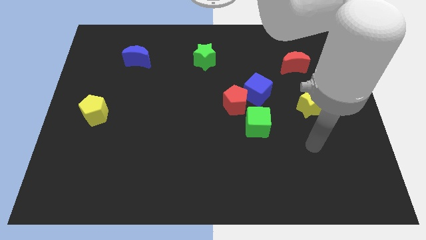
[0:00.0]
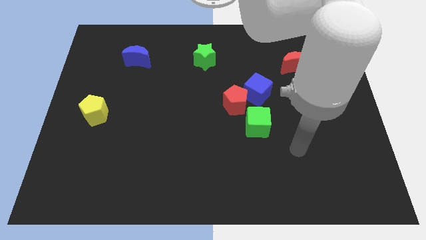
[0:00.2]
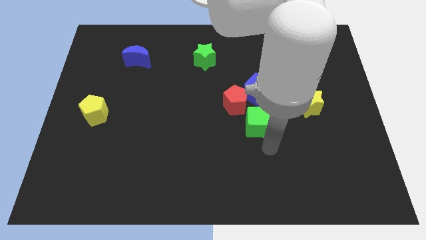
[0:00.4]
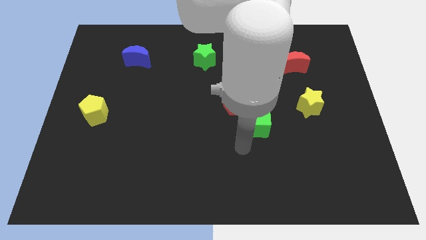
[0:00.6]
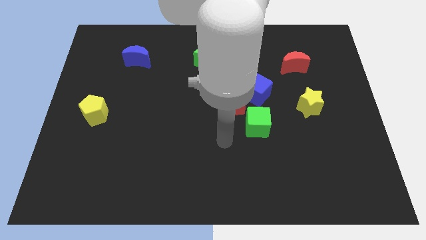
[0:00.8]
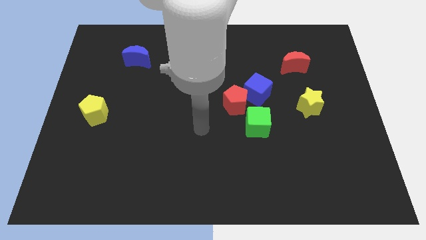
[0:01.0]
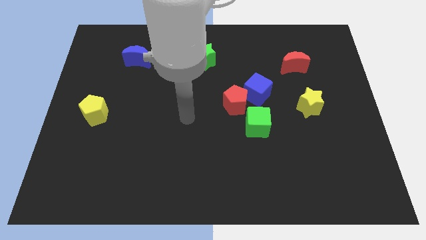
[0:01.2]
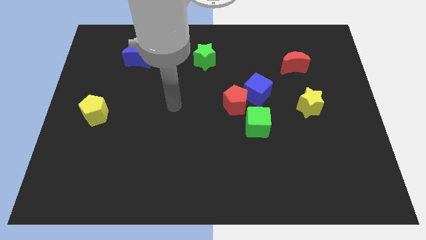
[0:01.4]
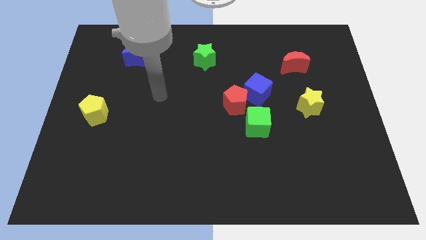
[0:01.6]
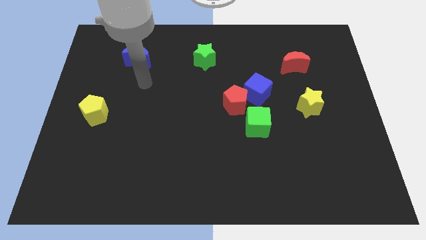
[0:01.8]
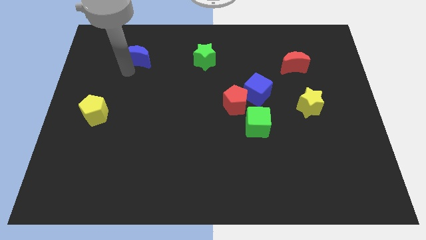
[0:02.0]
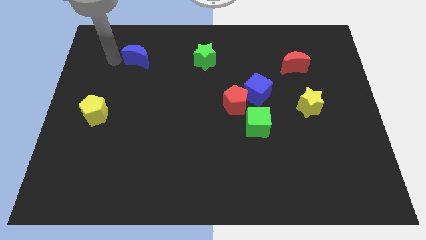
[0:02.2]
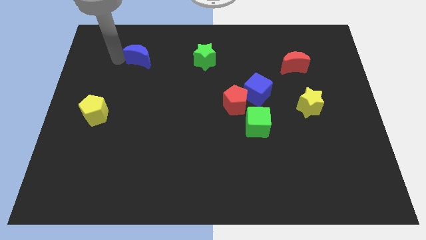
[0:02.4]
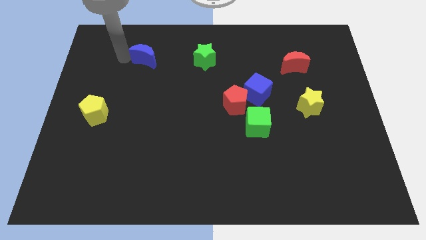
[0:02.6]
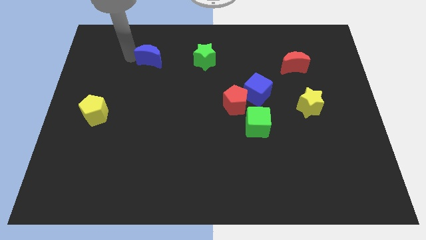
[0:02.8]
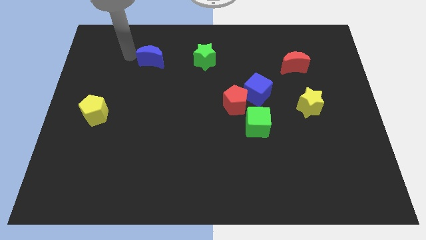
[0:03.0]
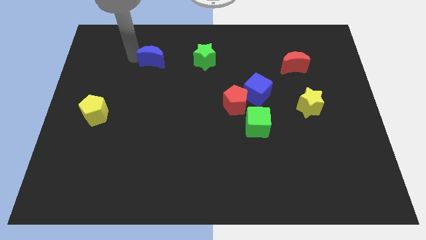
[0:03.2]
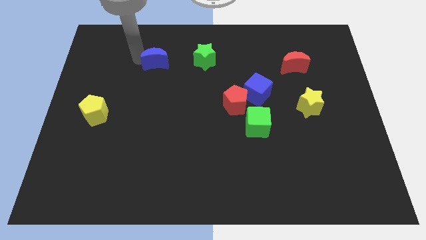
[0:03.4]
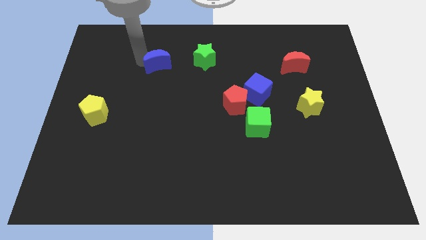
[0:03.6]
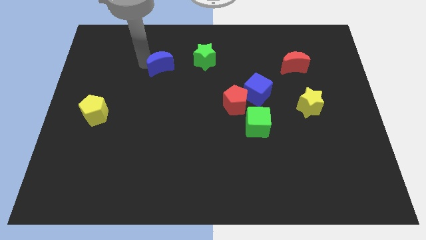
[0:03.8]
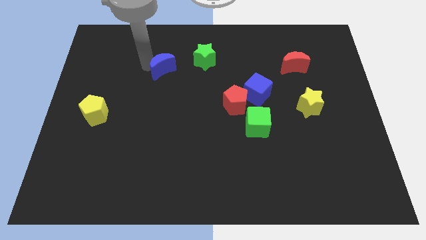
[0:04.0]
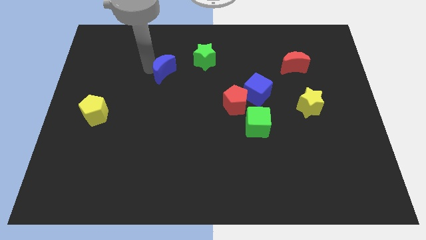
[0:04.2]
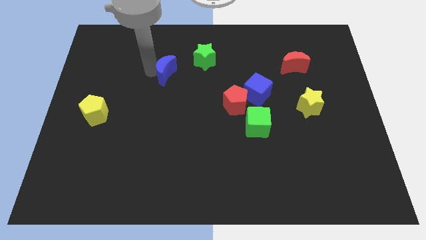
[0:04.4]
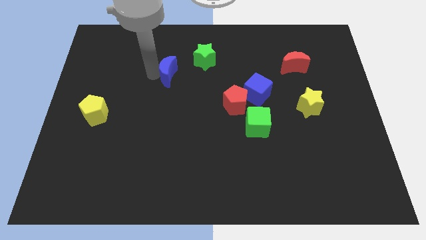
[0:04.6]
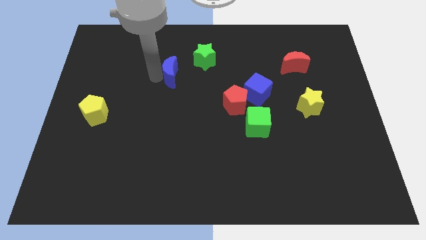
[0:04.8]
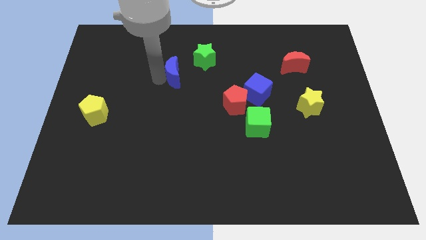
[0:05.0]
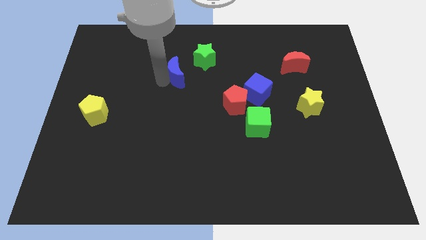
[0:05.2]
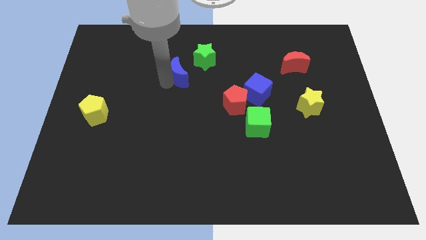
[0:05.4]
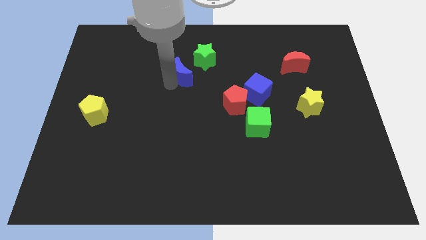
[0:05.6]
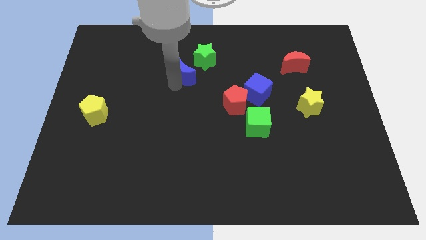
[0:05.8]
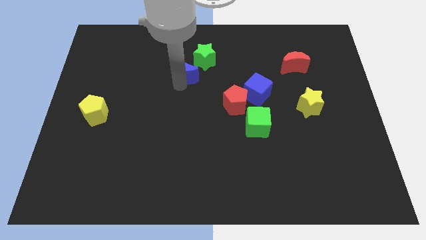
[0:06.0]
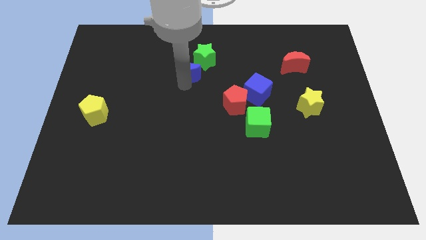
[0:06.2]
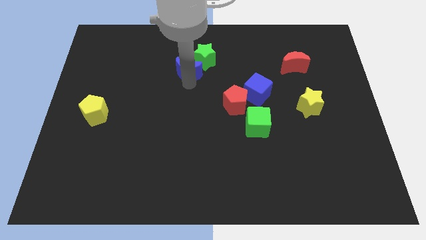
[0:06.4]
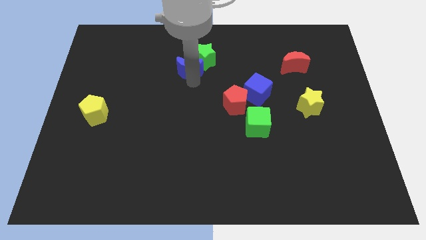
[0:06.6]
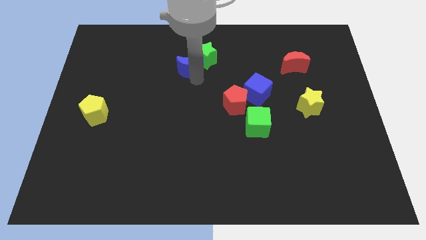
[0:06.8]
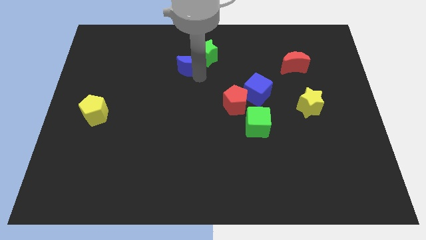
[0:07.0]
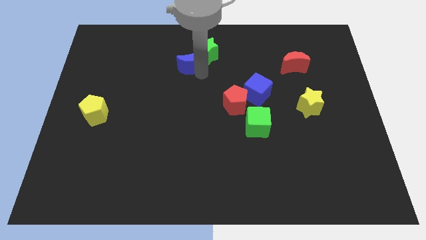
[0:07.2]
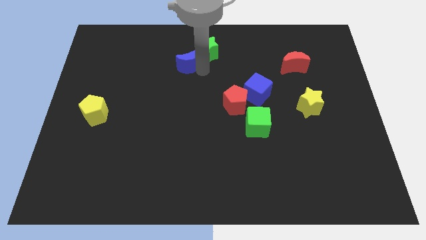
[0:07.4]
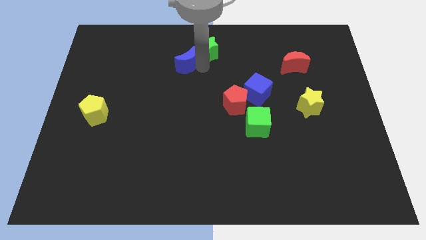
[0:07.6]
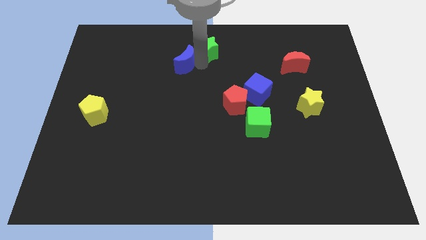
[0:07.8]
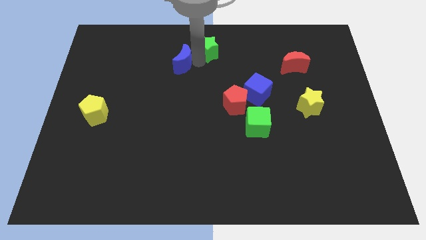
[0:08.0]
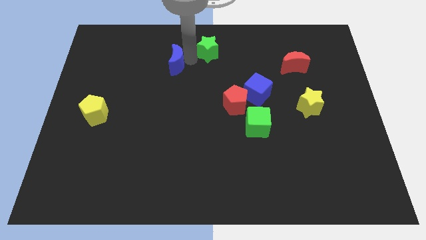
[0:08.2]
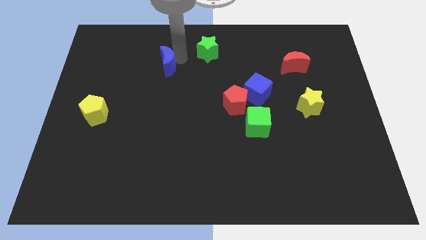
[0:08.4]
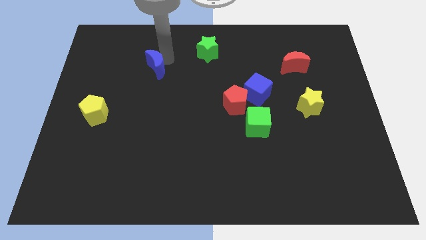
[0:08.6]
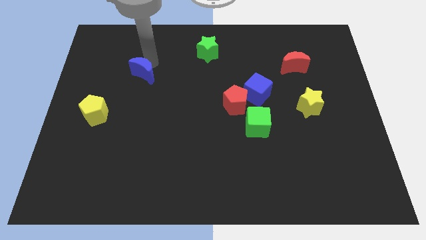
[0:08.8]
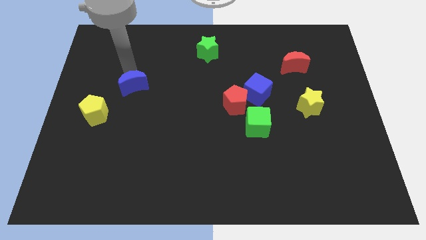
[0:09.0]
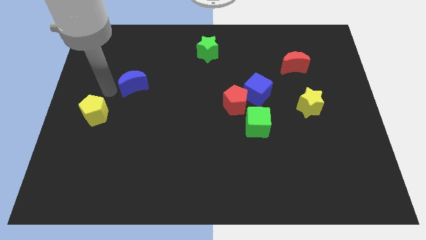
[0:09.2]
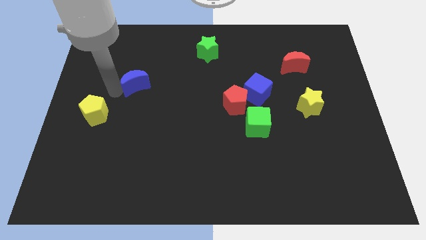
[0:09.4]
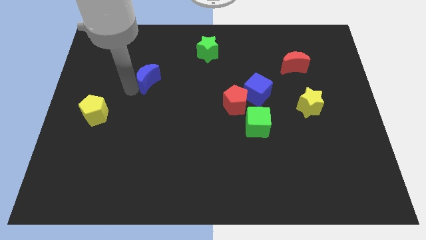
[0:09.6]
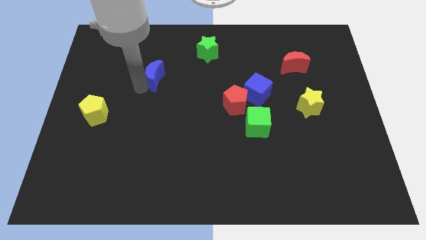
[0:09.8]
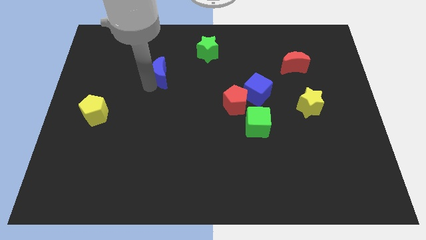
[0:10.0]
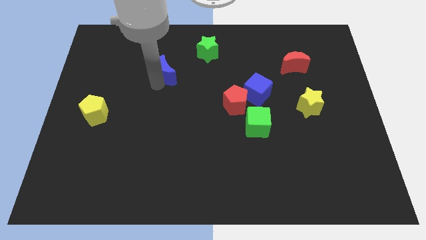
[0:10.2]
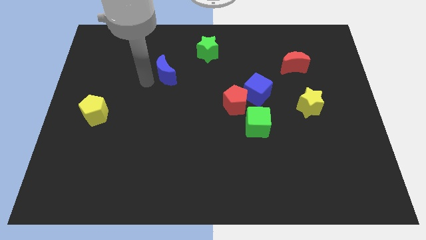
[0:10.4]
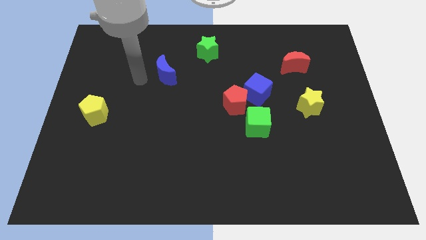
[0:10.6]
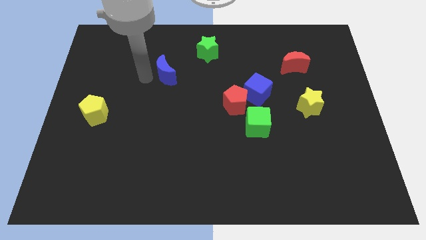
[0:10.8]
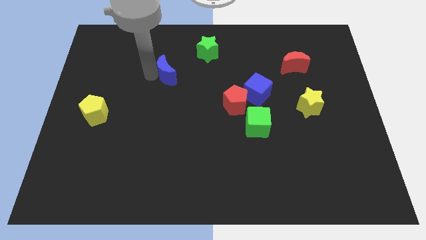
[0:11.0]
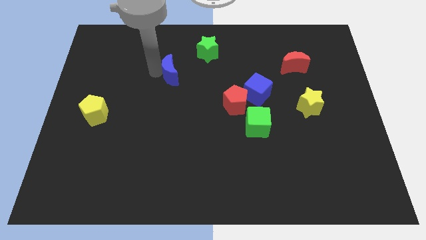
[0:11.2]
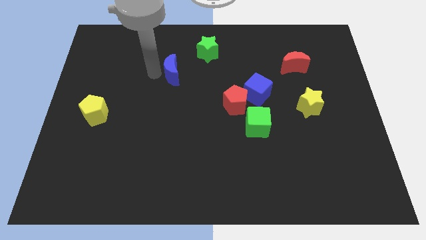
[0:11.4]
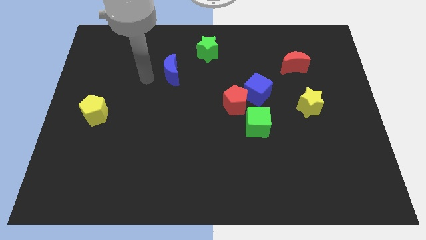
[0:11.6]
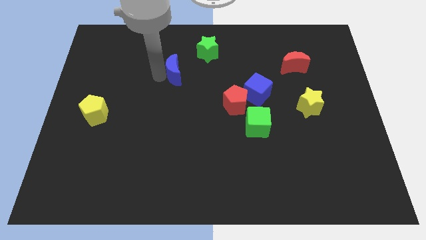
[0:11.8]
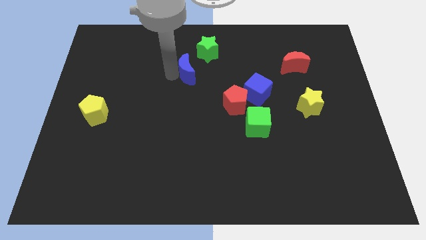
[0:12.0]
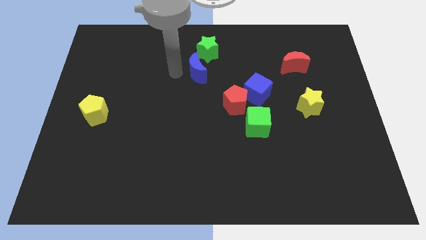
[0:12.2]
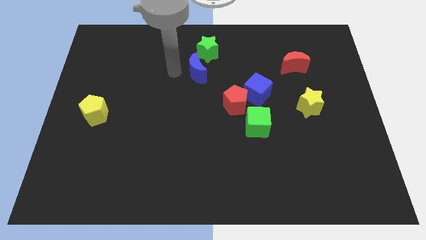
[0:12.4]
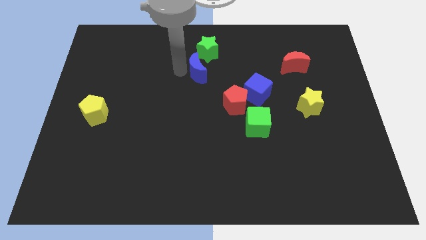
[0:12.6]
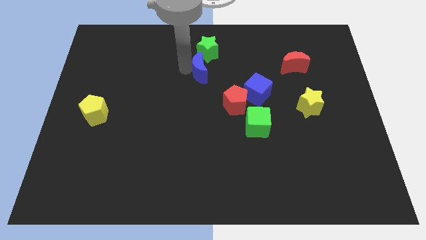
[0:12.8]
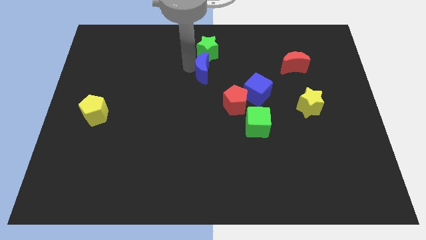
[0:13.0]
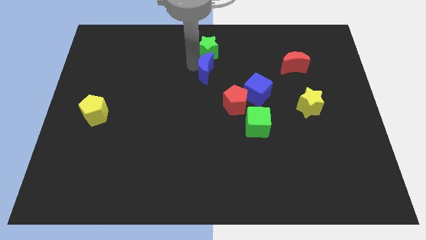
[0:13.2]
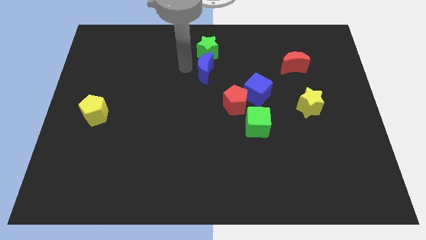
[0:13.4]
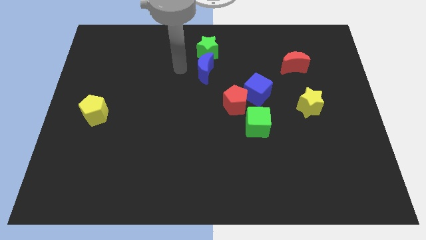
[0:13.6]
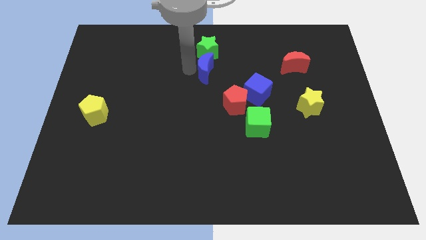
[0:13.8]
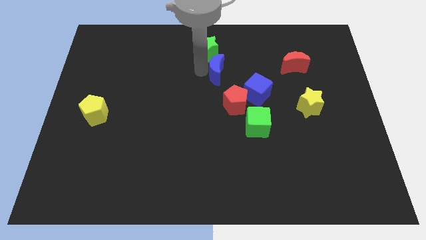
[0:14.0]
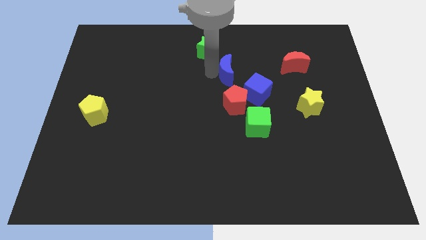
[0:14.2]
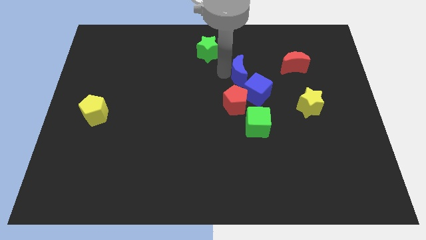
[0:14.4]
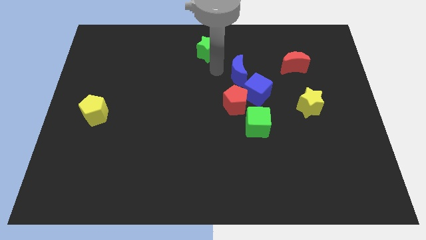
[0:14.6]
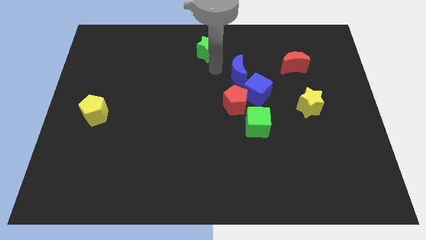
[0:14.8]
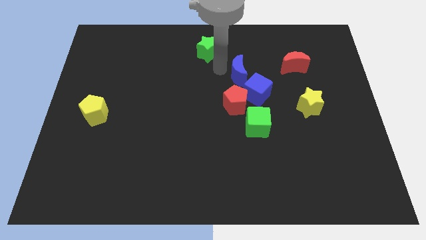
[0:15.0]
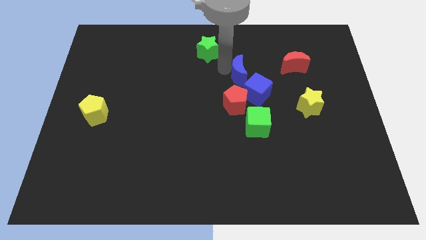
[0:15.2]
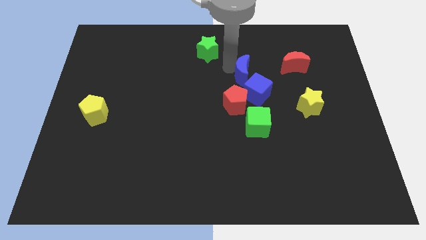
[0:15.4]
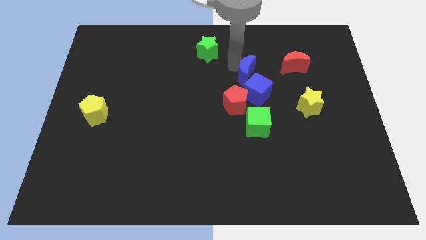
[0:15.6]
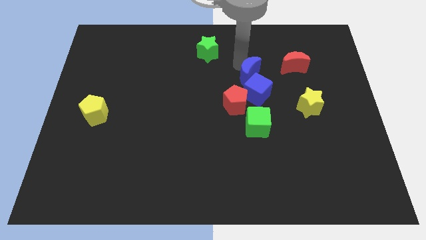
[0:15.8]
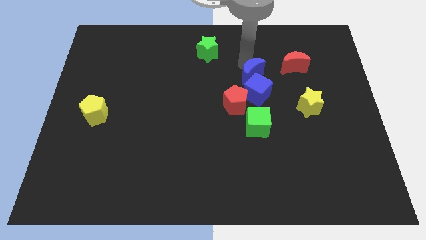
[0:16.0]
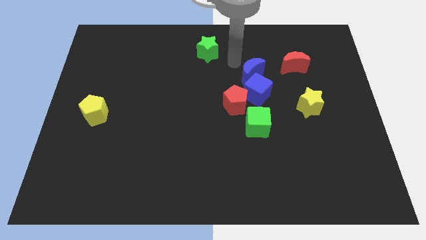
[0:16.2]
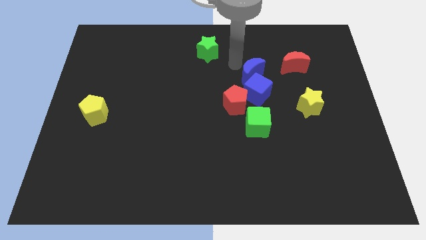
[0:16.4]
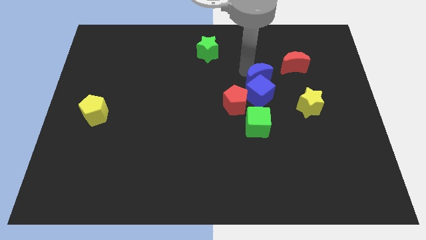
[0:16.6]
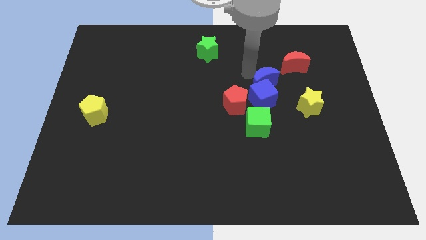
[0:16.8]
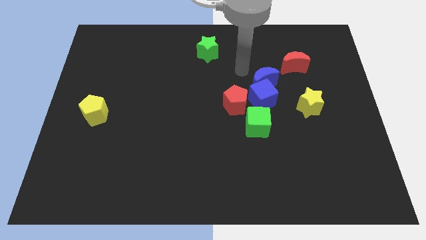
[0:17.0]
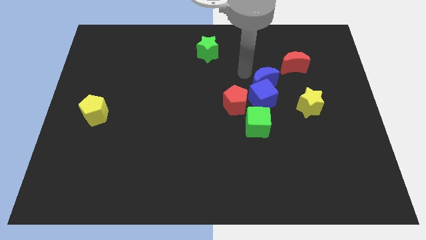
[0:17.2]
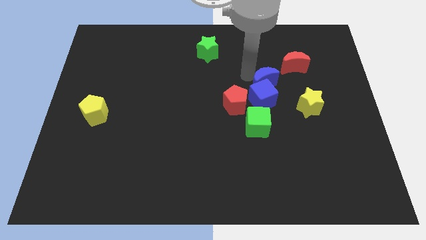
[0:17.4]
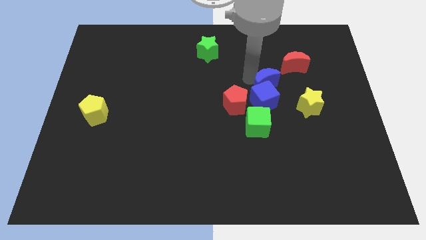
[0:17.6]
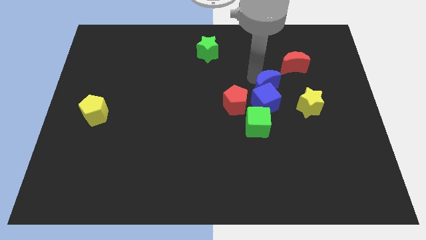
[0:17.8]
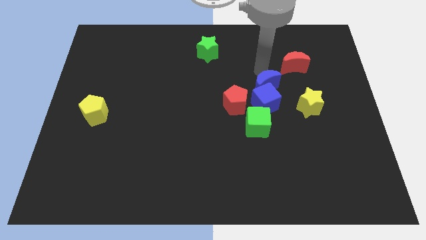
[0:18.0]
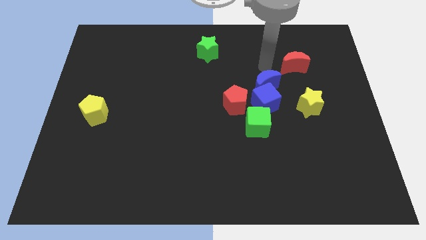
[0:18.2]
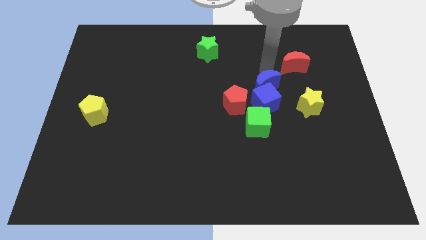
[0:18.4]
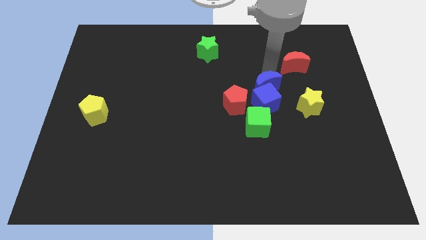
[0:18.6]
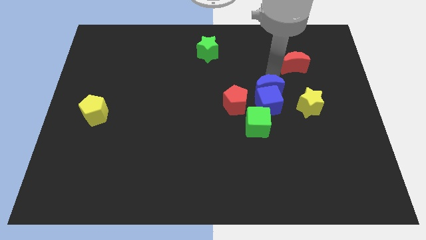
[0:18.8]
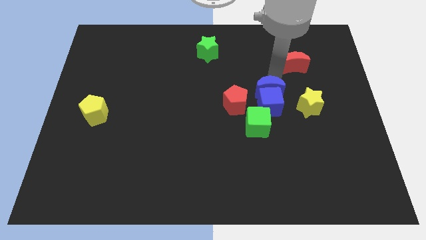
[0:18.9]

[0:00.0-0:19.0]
move the blue moon left of the yellow star
